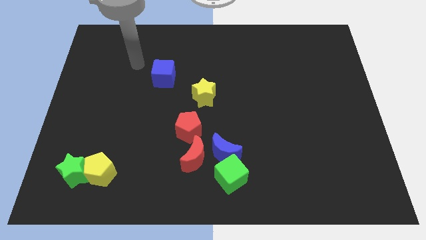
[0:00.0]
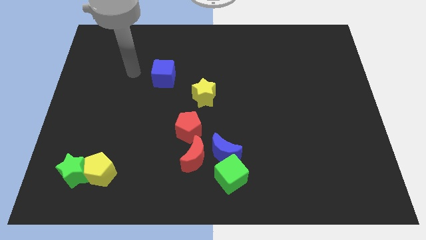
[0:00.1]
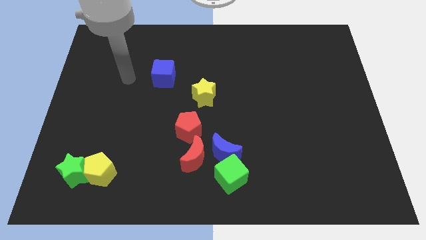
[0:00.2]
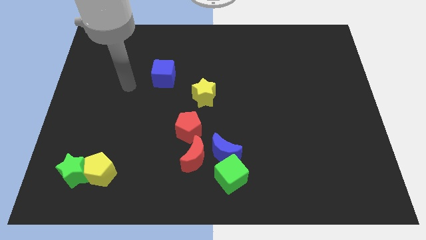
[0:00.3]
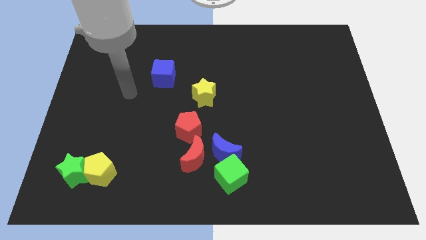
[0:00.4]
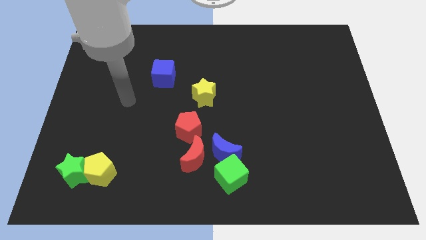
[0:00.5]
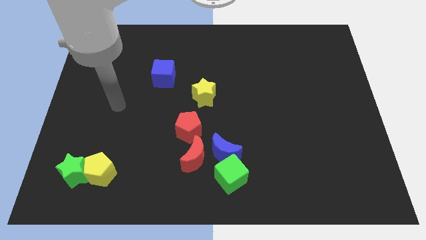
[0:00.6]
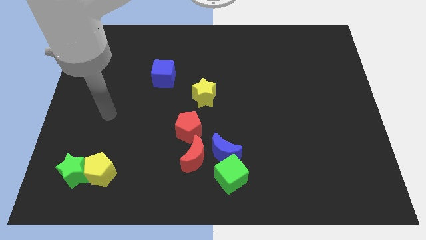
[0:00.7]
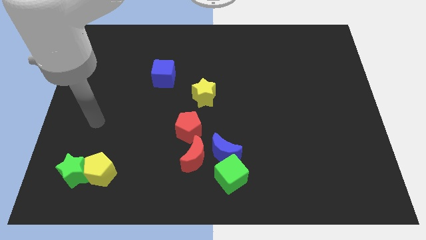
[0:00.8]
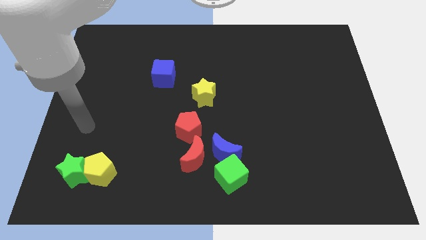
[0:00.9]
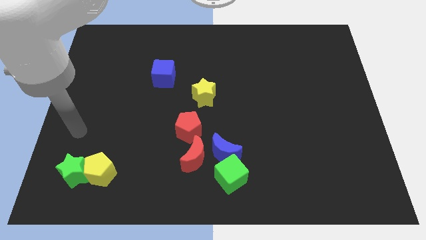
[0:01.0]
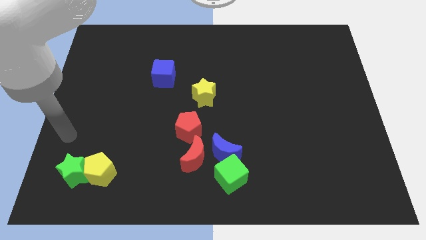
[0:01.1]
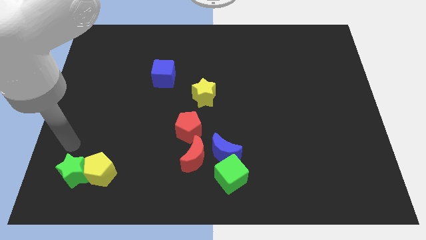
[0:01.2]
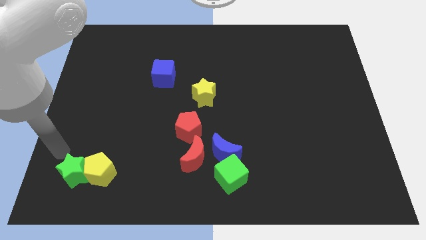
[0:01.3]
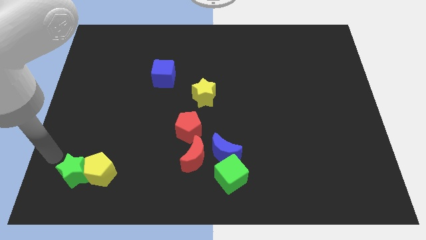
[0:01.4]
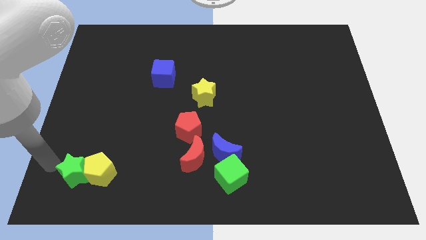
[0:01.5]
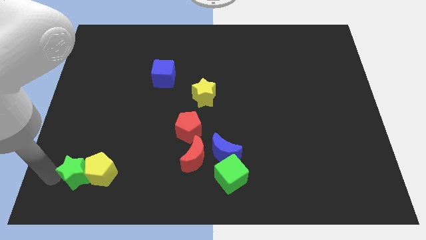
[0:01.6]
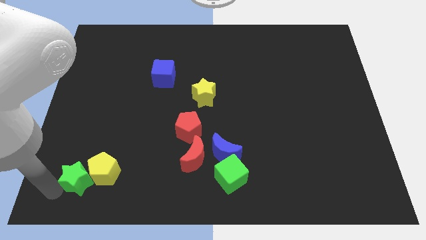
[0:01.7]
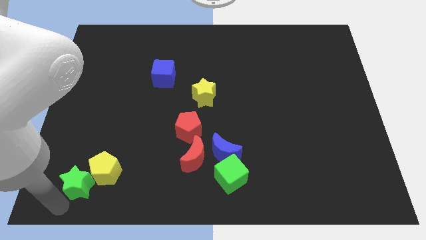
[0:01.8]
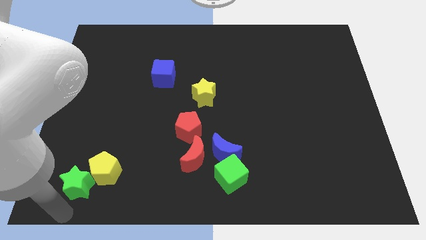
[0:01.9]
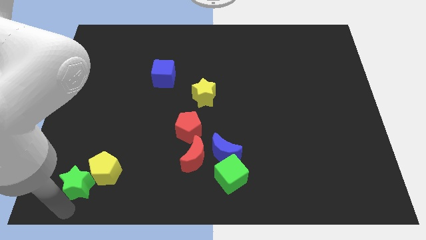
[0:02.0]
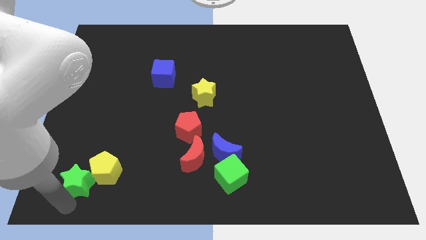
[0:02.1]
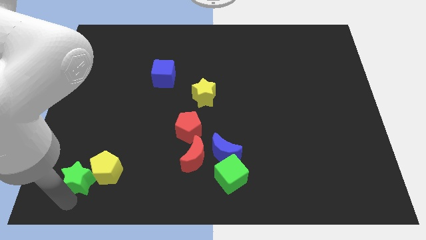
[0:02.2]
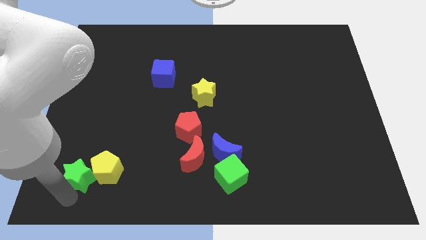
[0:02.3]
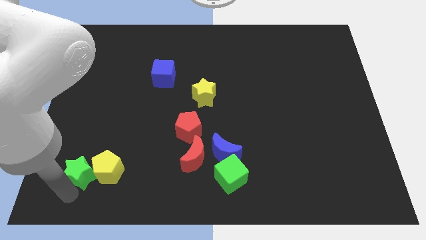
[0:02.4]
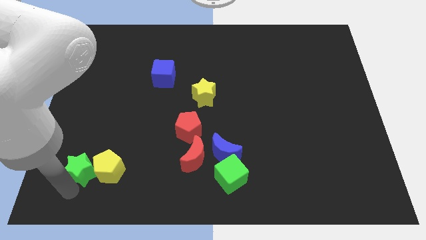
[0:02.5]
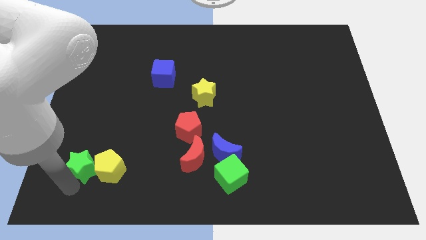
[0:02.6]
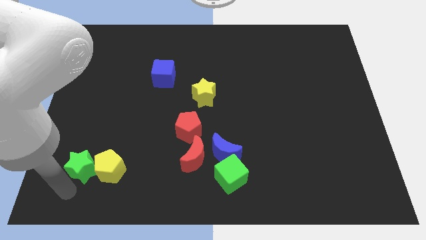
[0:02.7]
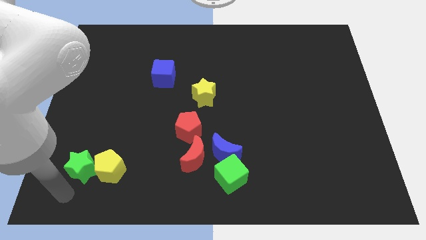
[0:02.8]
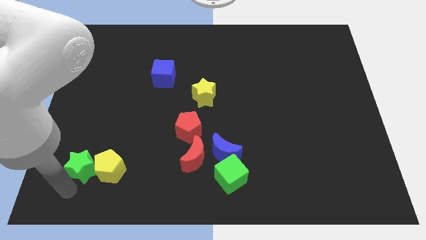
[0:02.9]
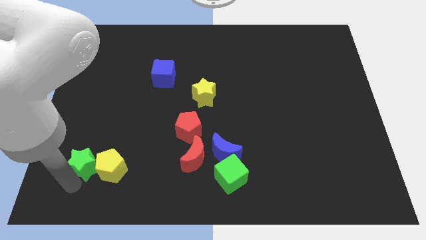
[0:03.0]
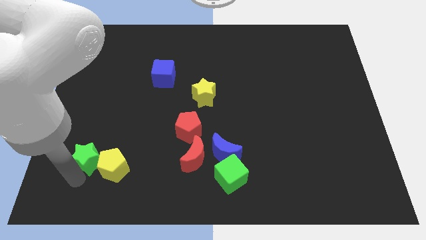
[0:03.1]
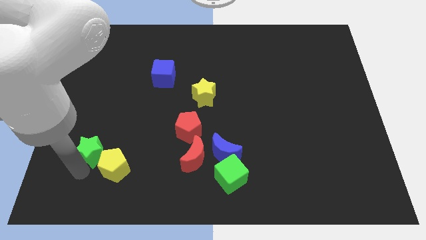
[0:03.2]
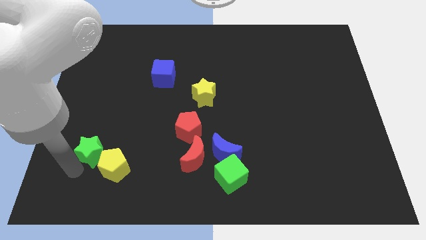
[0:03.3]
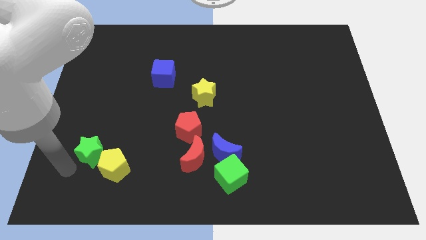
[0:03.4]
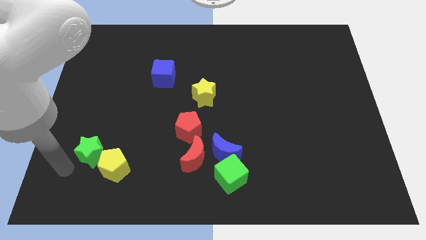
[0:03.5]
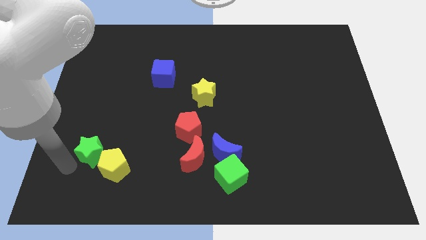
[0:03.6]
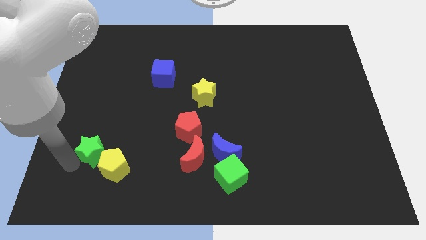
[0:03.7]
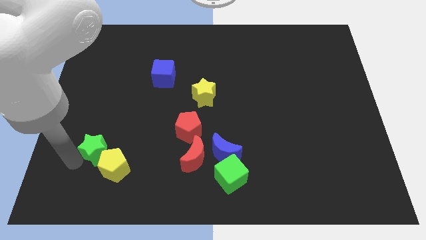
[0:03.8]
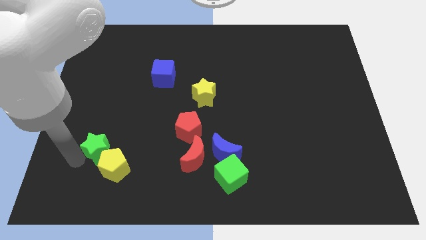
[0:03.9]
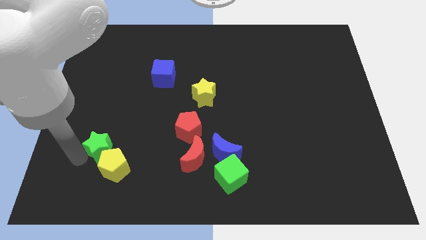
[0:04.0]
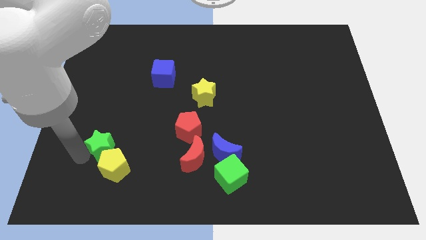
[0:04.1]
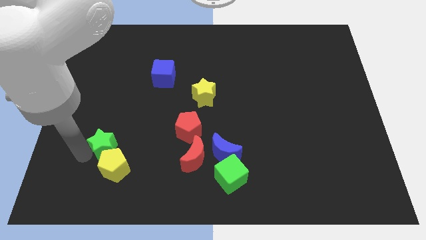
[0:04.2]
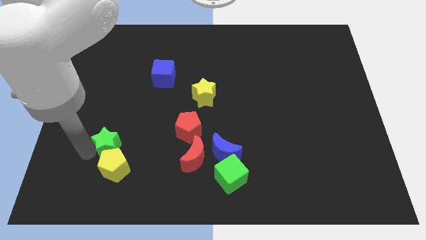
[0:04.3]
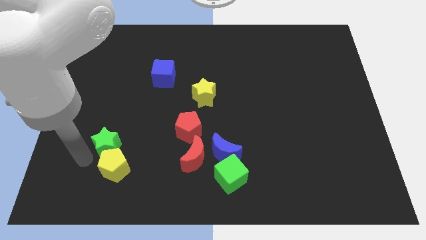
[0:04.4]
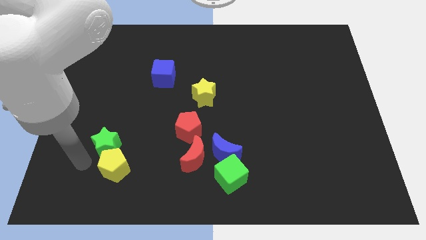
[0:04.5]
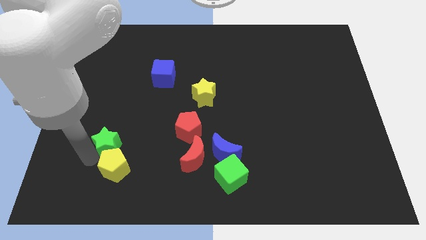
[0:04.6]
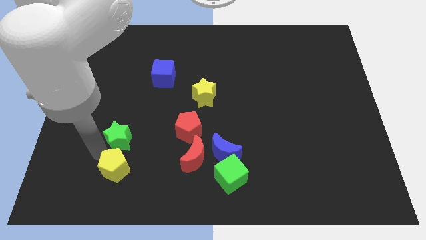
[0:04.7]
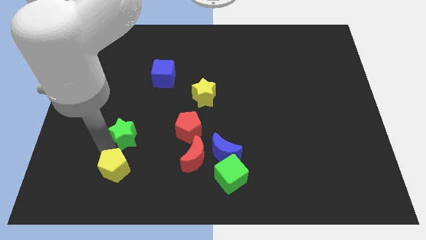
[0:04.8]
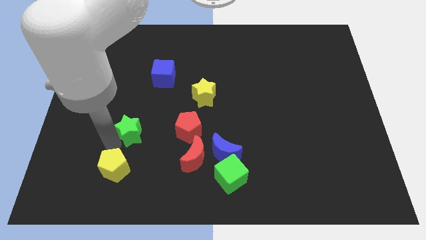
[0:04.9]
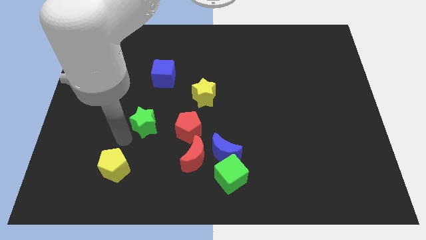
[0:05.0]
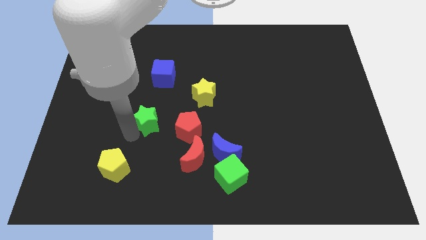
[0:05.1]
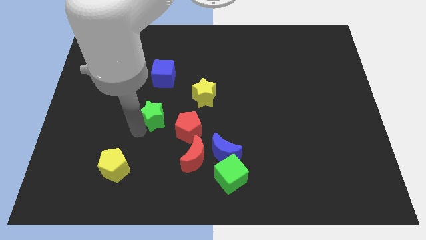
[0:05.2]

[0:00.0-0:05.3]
move the green star diagonally up and to the right

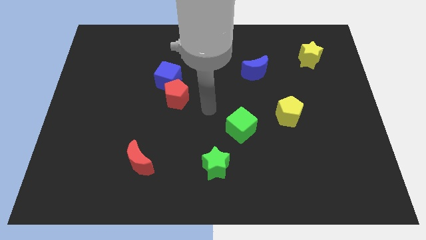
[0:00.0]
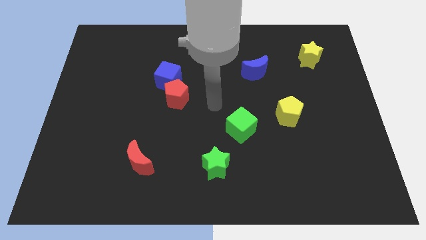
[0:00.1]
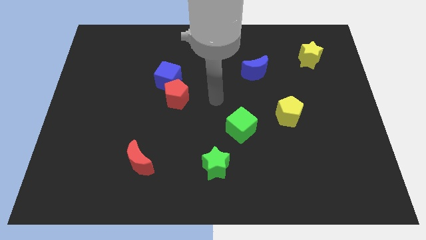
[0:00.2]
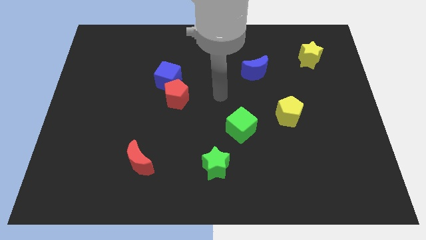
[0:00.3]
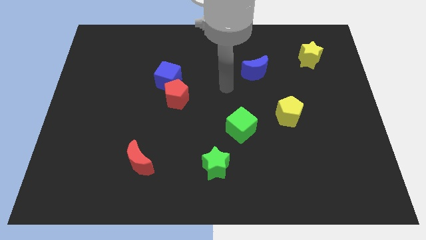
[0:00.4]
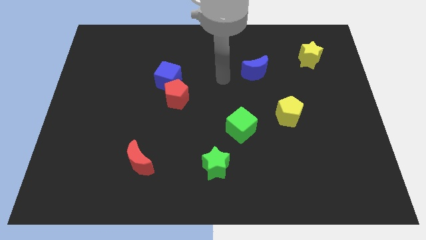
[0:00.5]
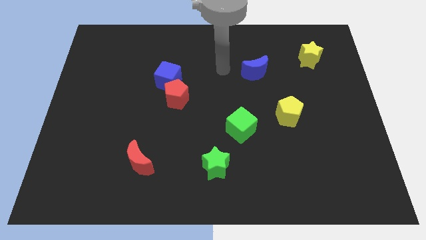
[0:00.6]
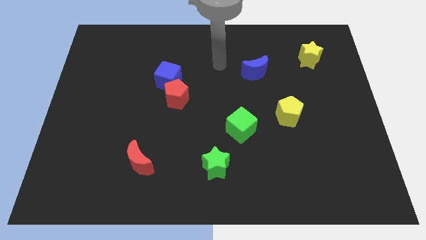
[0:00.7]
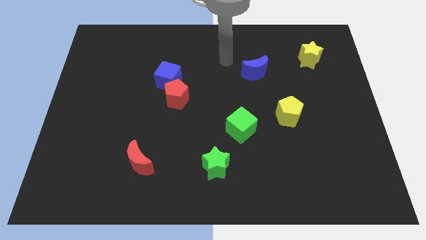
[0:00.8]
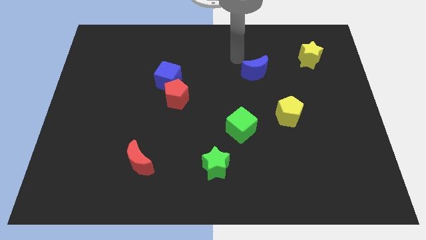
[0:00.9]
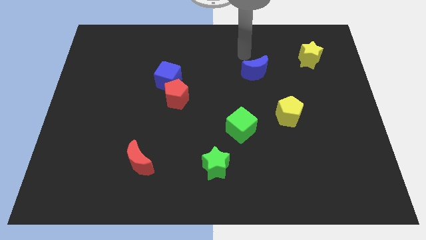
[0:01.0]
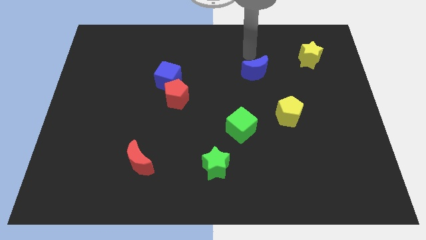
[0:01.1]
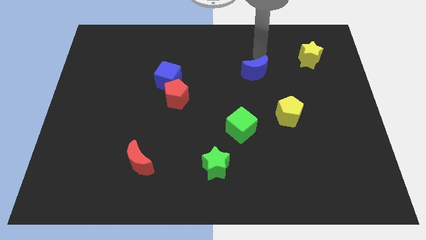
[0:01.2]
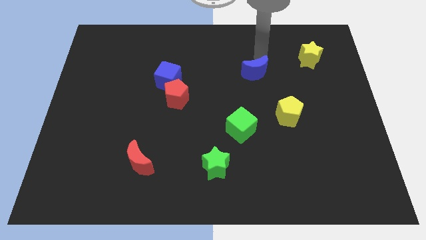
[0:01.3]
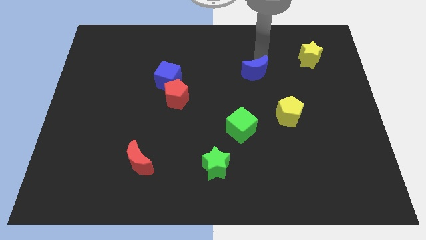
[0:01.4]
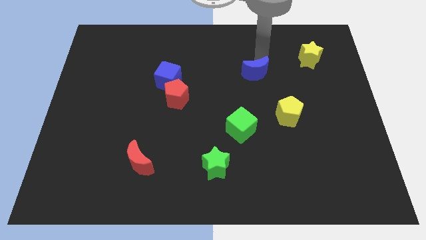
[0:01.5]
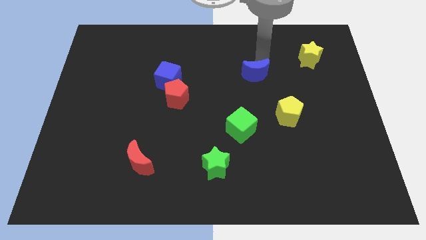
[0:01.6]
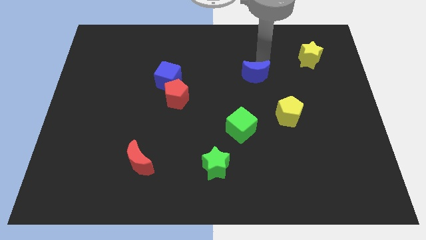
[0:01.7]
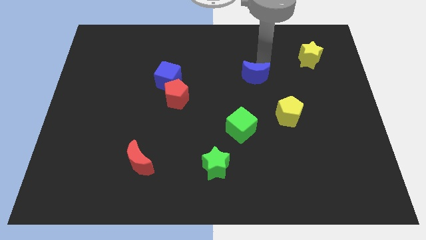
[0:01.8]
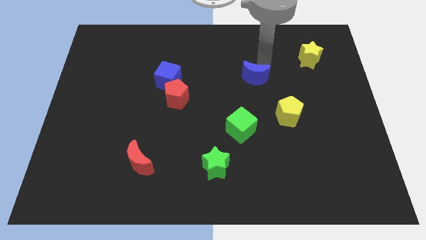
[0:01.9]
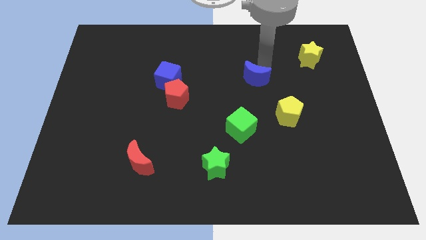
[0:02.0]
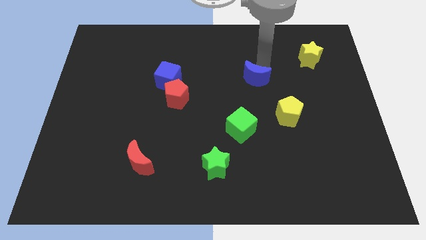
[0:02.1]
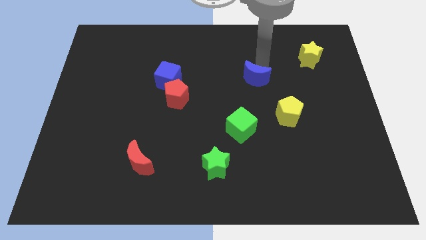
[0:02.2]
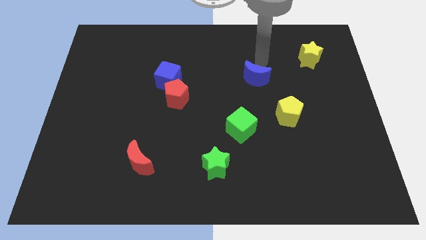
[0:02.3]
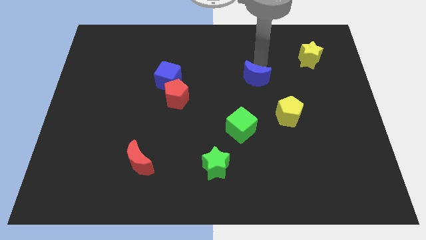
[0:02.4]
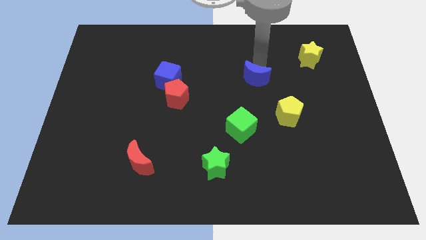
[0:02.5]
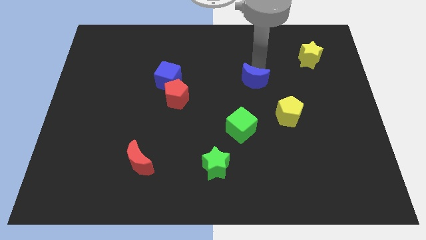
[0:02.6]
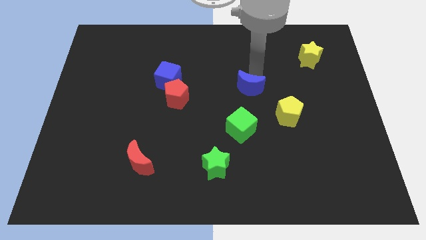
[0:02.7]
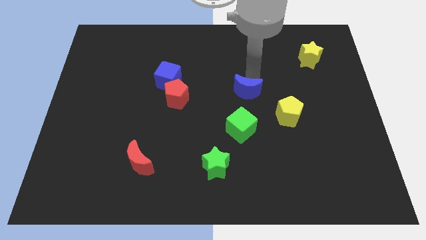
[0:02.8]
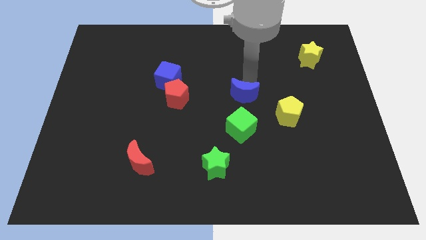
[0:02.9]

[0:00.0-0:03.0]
slightly slide the blue moon down
